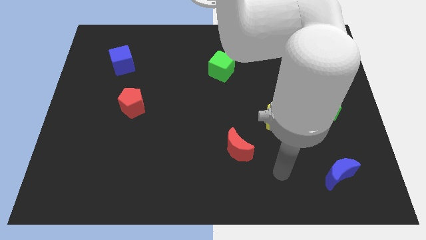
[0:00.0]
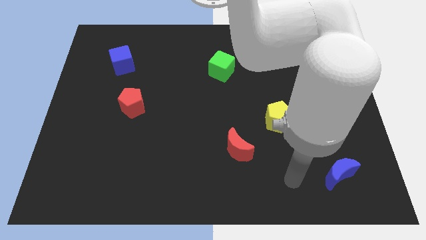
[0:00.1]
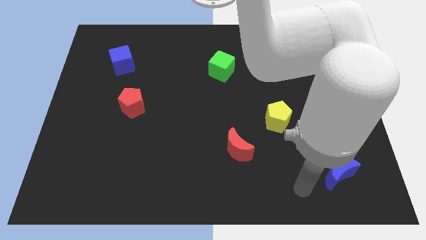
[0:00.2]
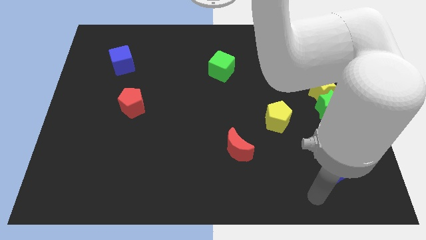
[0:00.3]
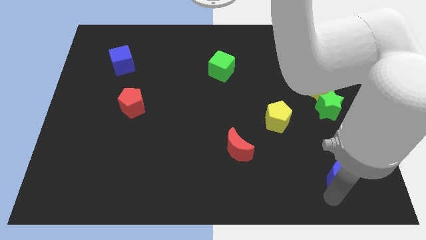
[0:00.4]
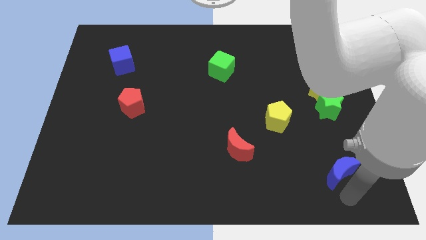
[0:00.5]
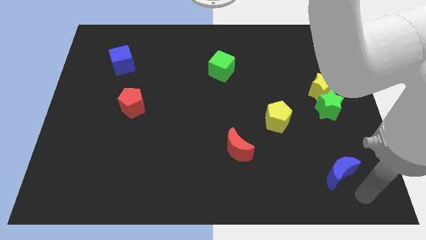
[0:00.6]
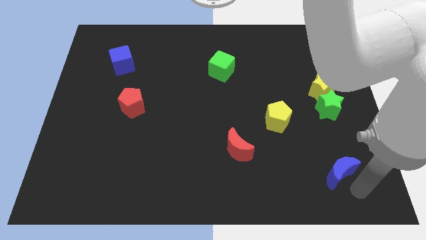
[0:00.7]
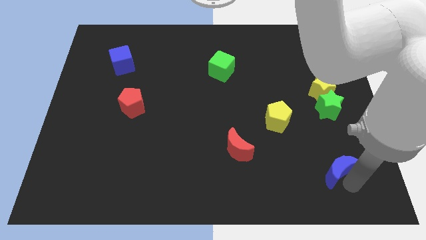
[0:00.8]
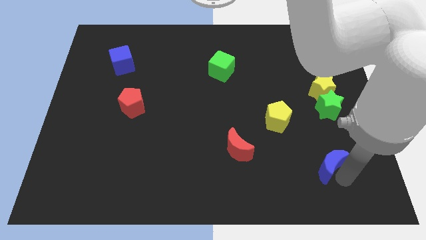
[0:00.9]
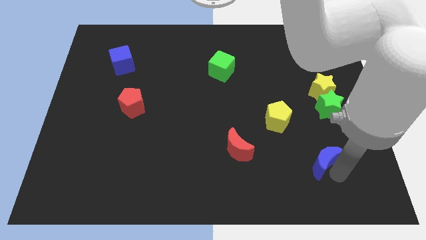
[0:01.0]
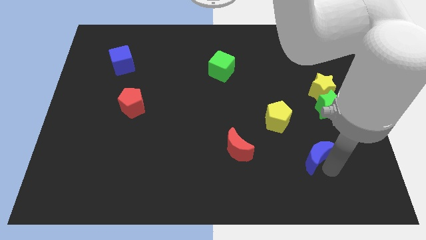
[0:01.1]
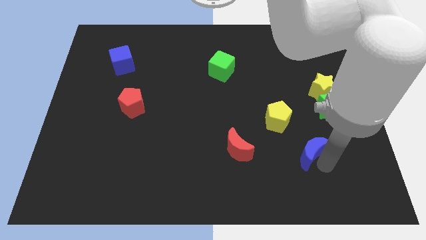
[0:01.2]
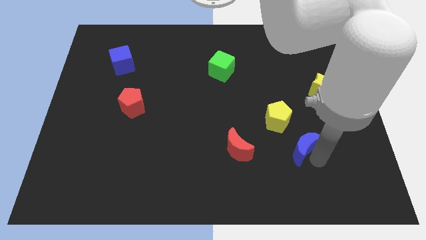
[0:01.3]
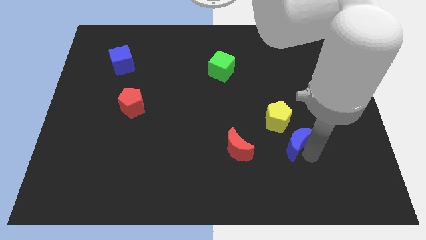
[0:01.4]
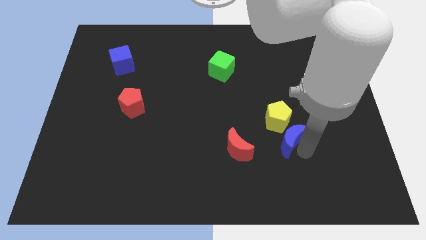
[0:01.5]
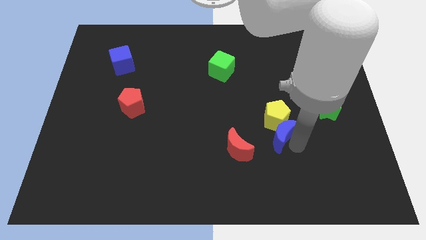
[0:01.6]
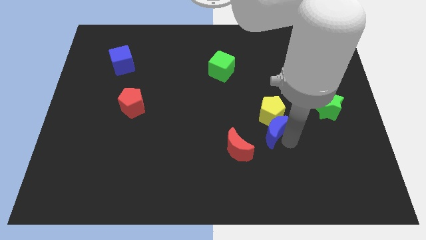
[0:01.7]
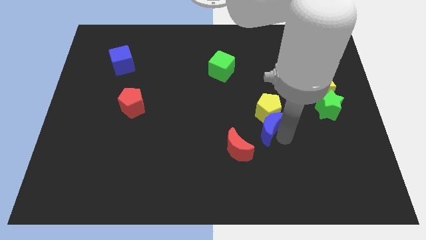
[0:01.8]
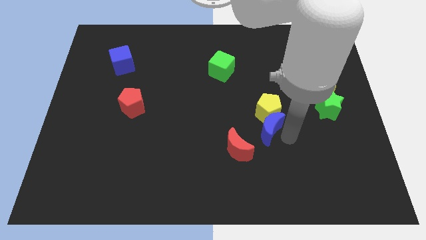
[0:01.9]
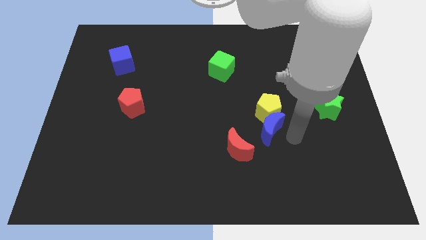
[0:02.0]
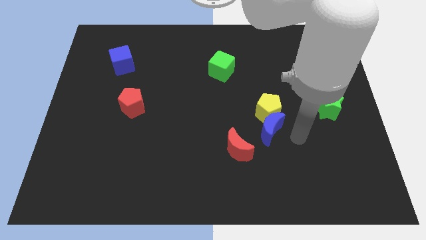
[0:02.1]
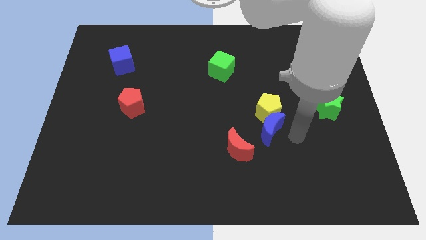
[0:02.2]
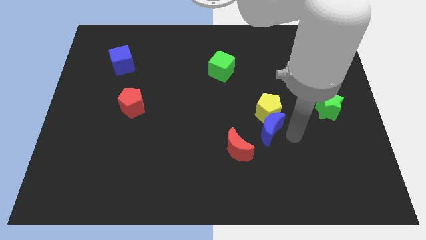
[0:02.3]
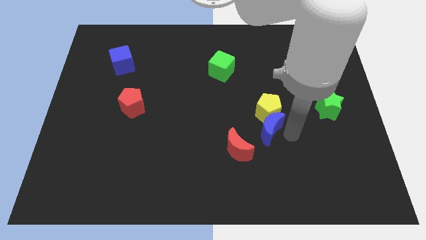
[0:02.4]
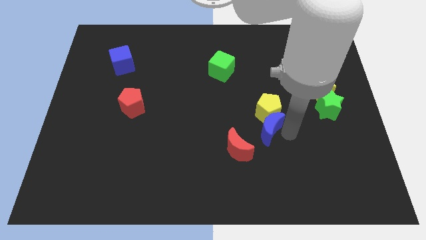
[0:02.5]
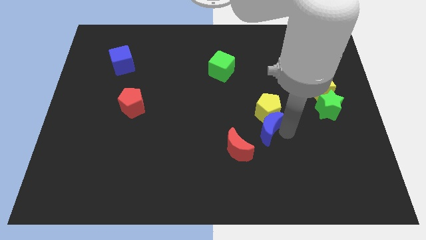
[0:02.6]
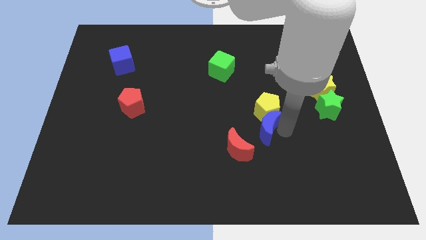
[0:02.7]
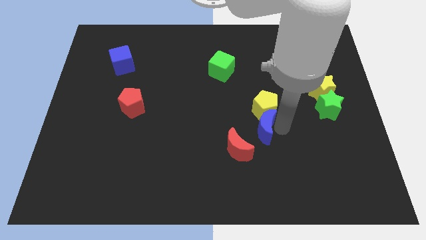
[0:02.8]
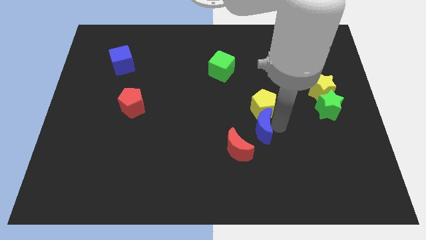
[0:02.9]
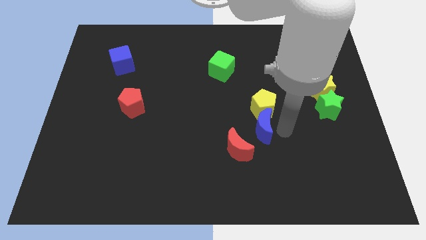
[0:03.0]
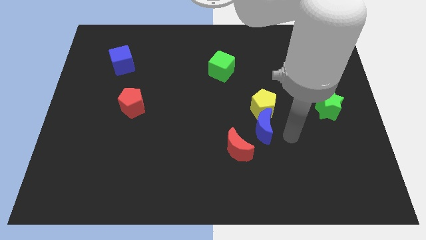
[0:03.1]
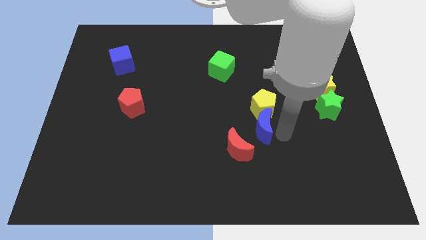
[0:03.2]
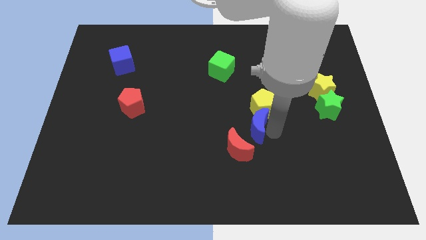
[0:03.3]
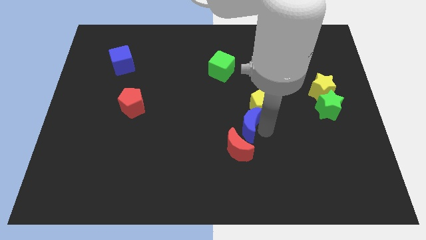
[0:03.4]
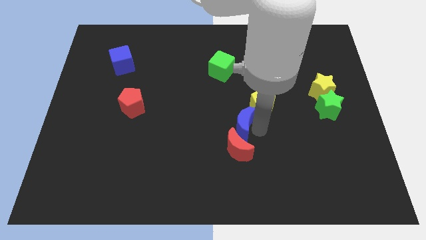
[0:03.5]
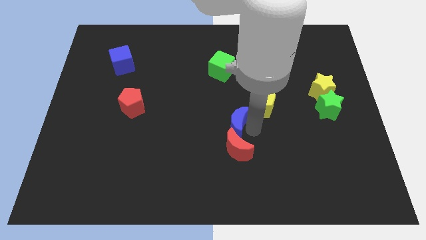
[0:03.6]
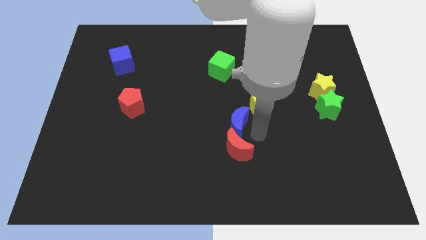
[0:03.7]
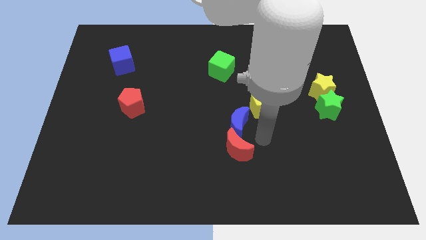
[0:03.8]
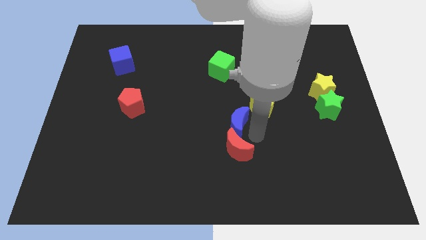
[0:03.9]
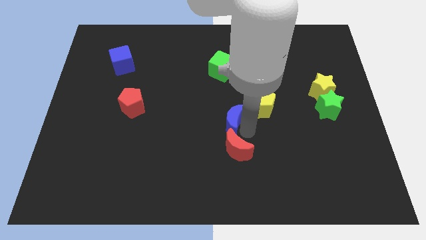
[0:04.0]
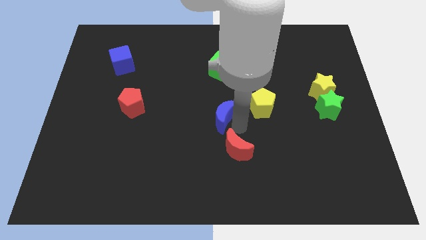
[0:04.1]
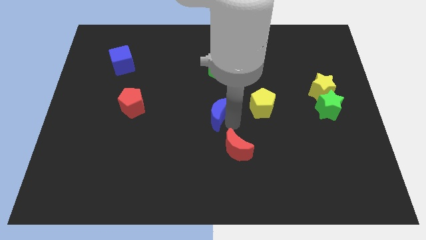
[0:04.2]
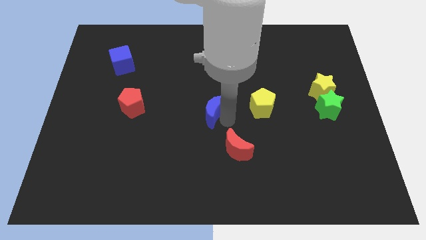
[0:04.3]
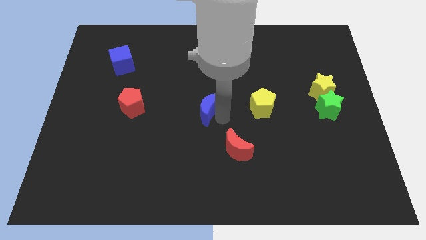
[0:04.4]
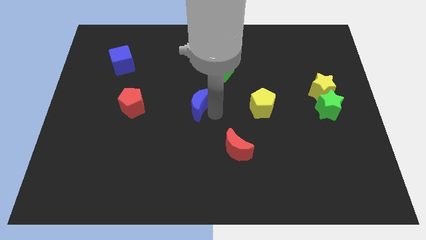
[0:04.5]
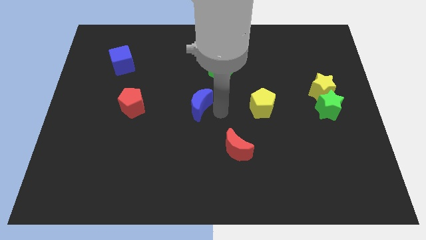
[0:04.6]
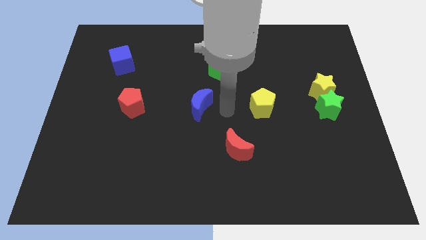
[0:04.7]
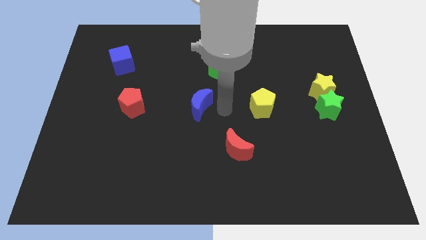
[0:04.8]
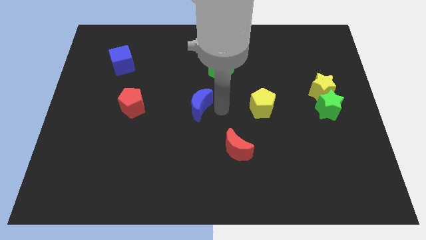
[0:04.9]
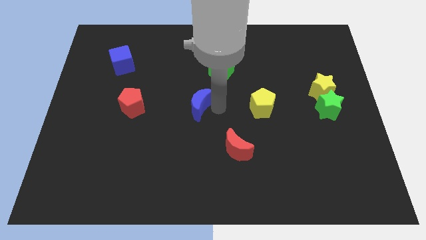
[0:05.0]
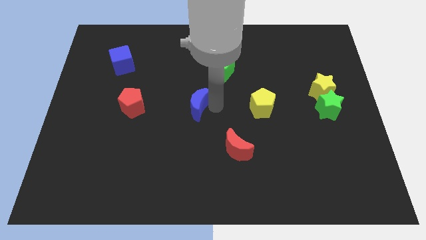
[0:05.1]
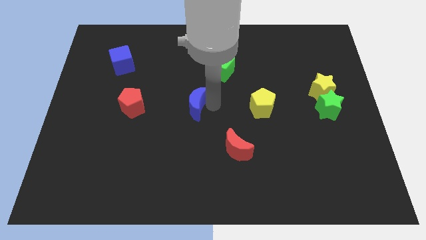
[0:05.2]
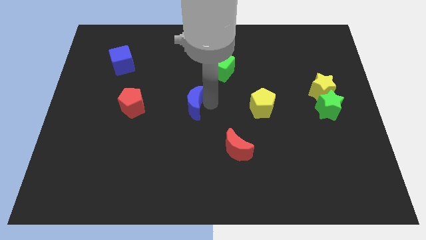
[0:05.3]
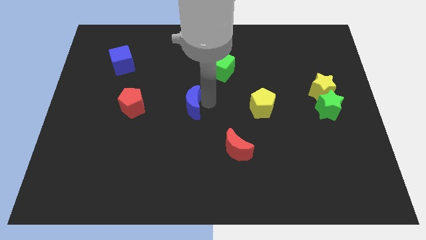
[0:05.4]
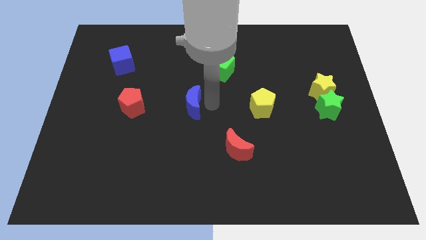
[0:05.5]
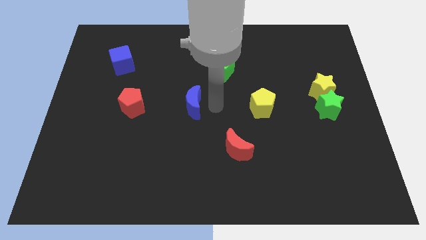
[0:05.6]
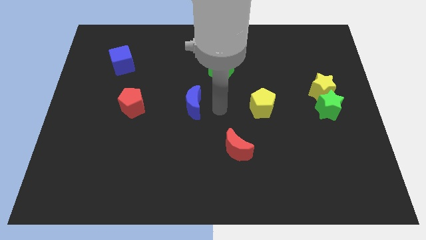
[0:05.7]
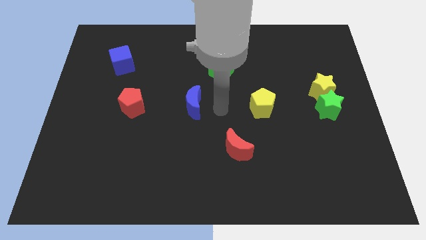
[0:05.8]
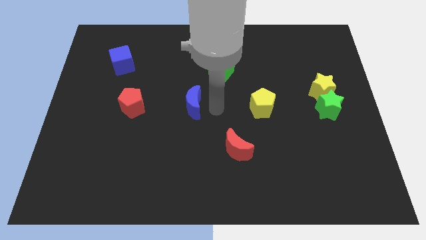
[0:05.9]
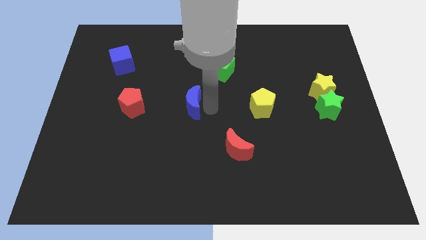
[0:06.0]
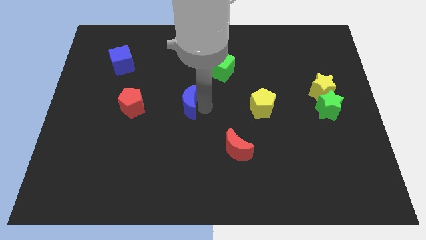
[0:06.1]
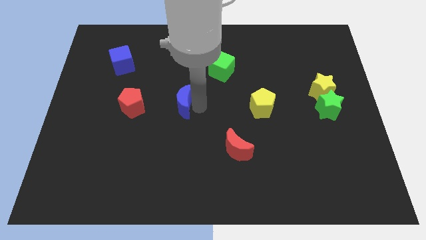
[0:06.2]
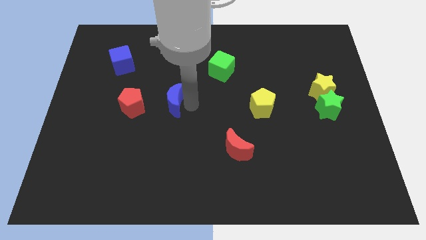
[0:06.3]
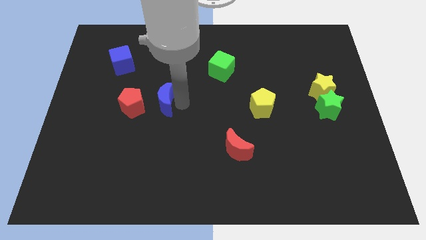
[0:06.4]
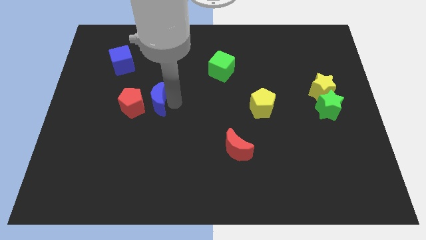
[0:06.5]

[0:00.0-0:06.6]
move the blue moon close to the red pentagon
